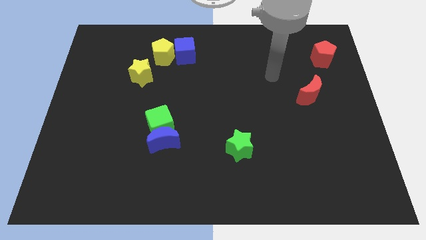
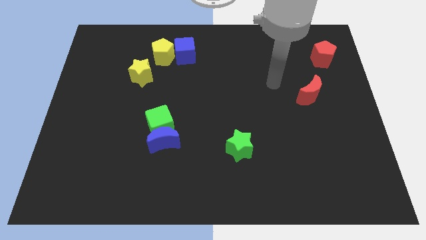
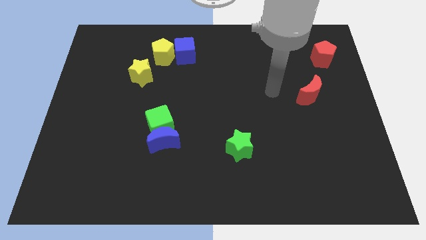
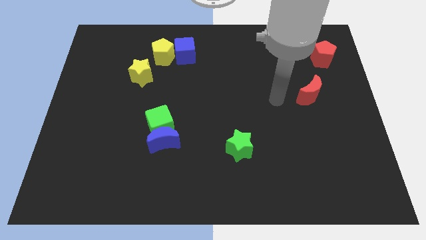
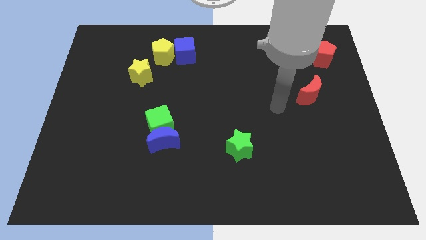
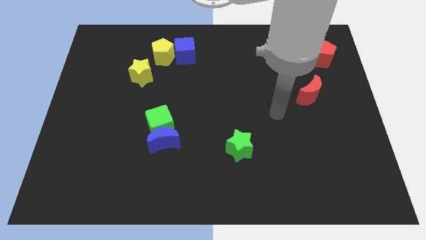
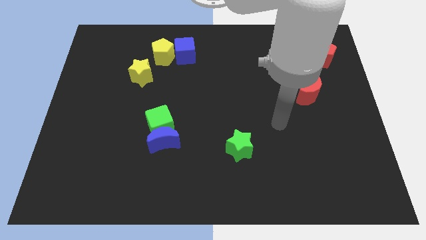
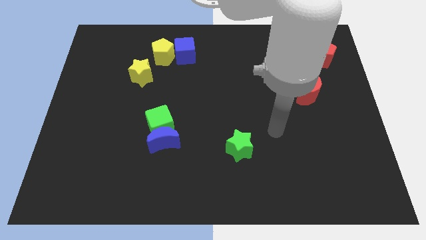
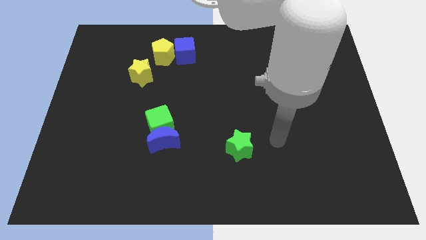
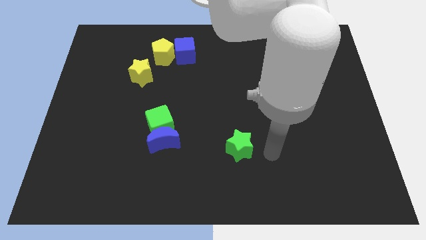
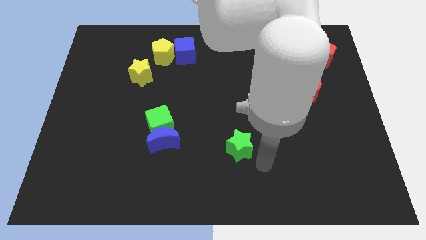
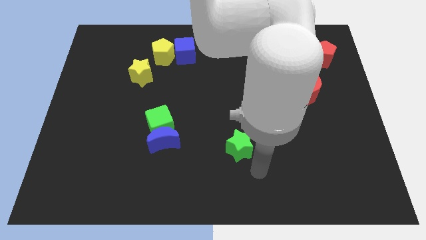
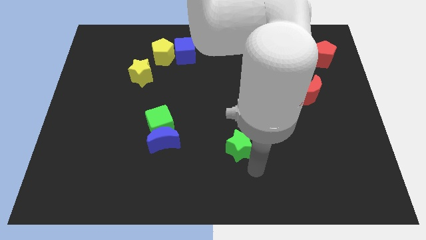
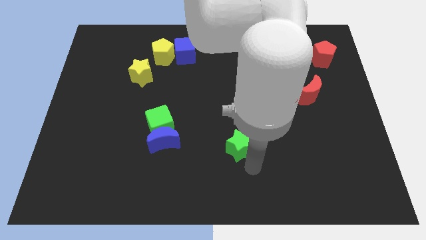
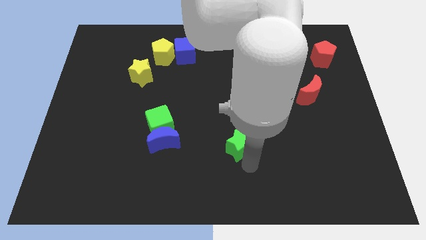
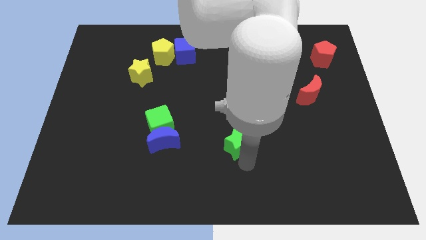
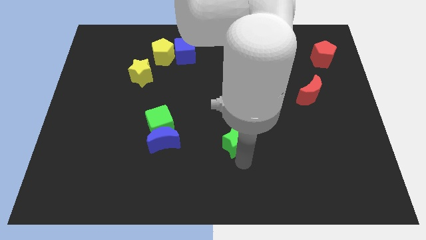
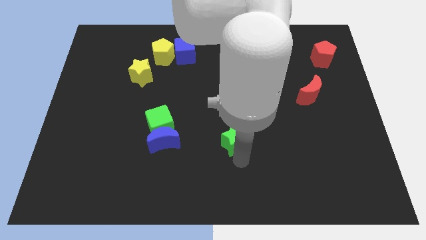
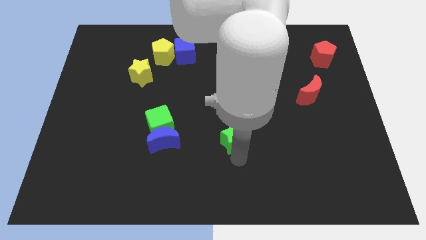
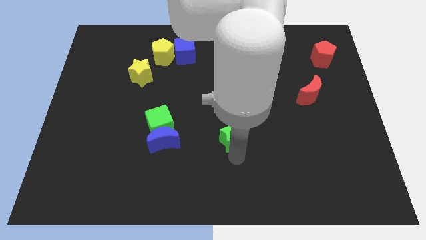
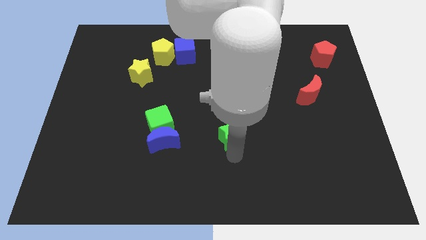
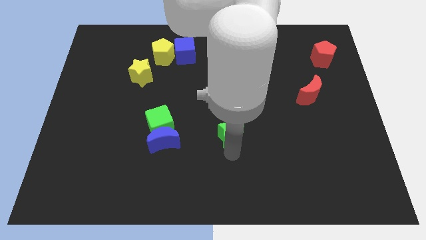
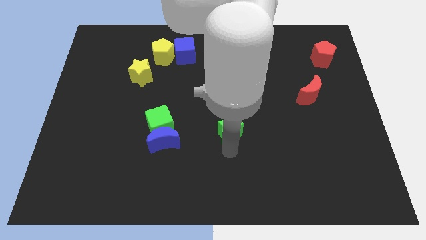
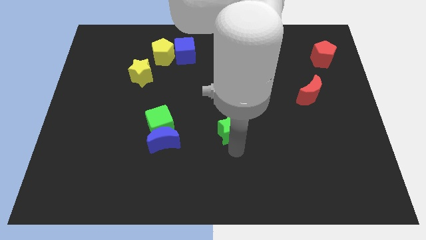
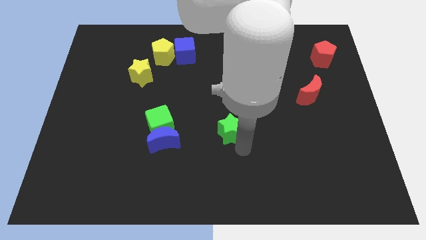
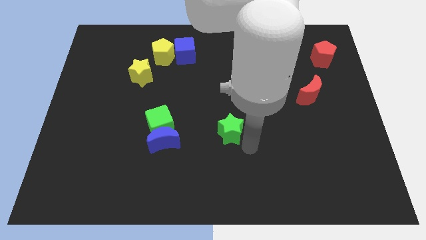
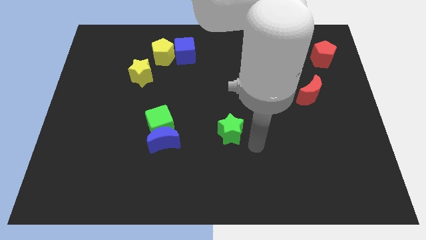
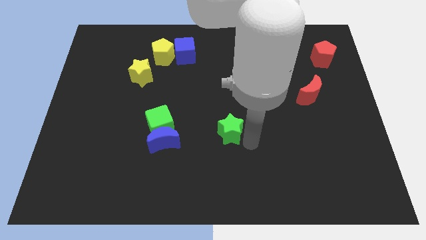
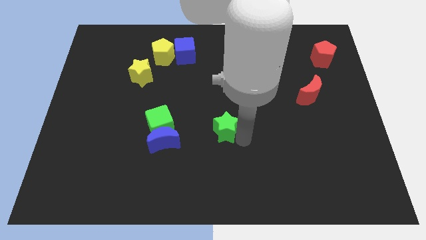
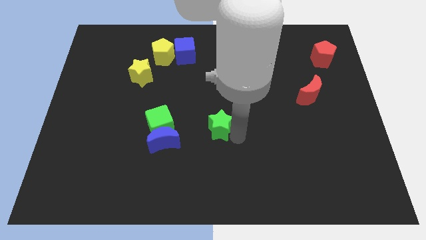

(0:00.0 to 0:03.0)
push the green star a little up and to the left

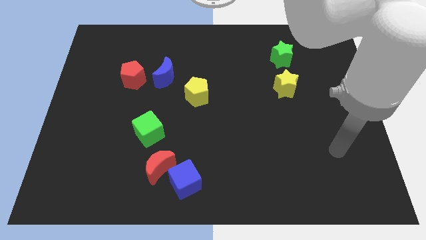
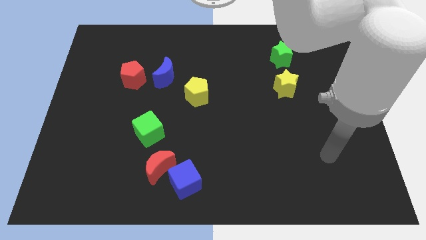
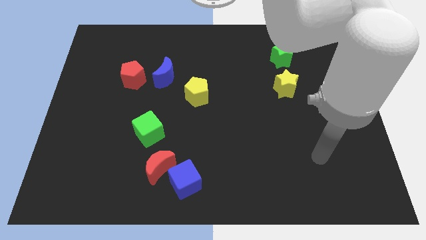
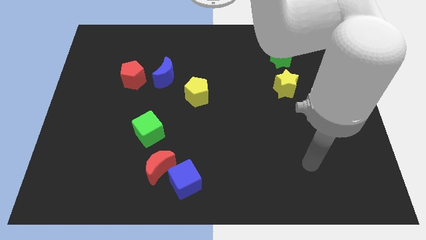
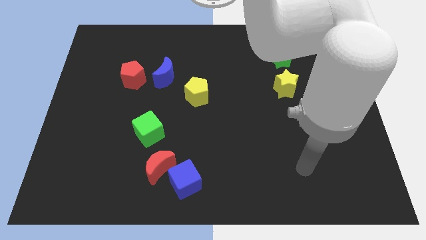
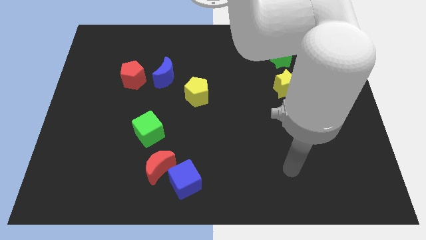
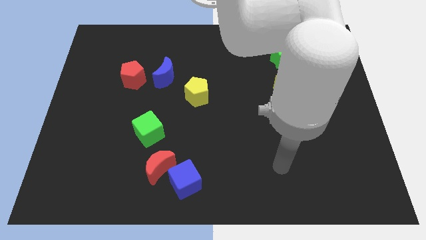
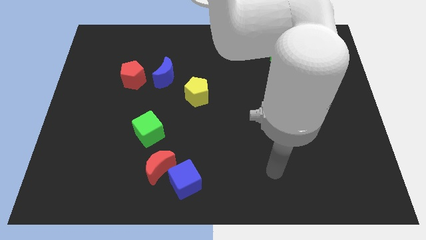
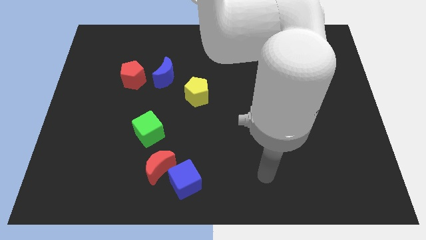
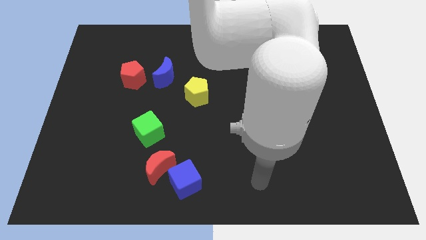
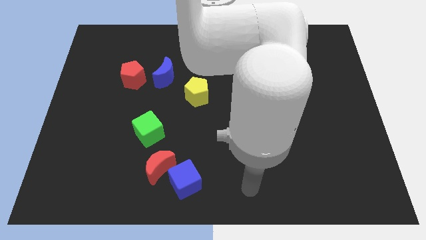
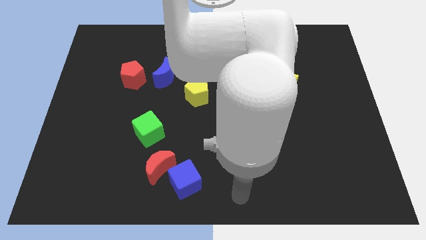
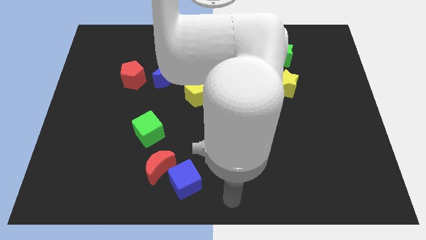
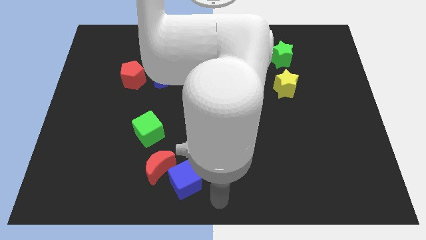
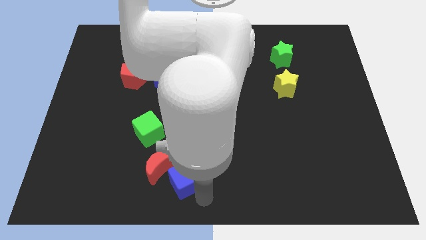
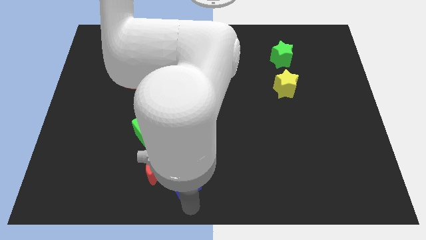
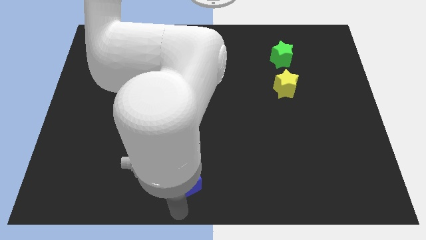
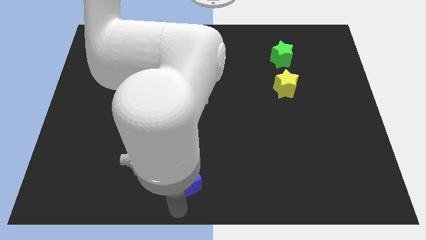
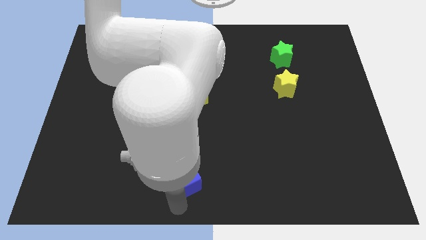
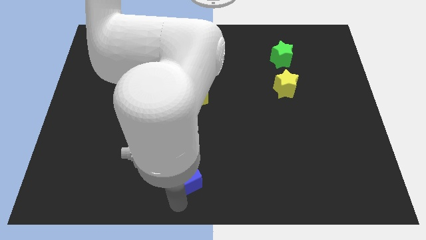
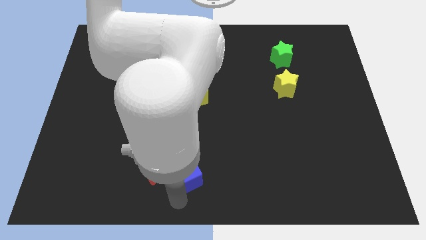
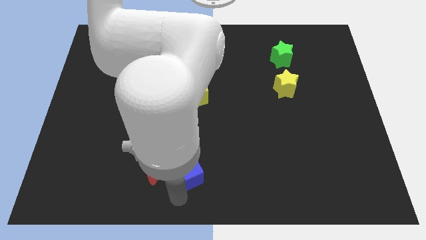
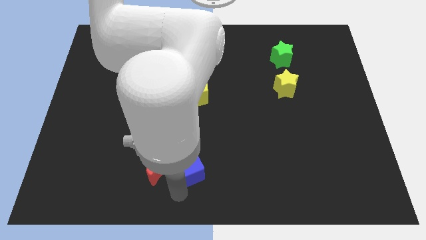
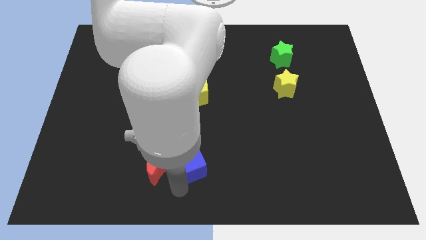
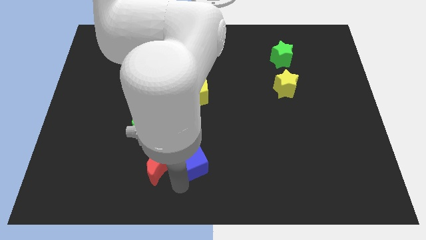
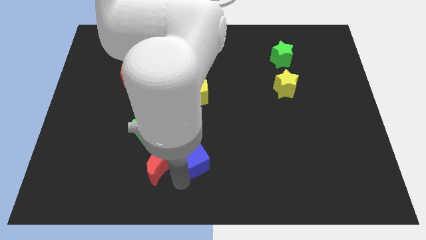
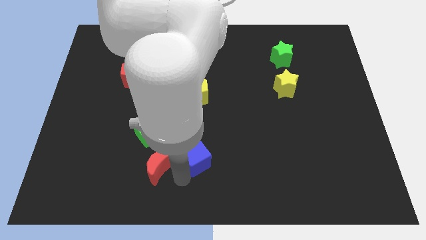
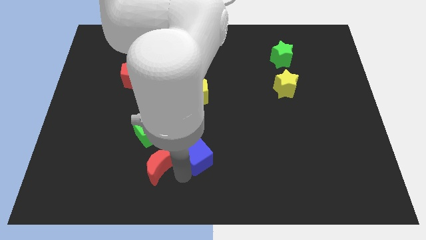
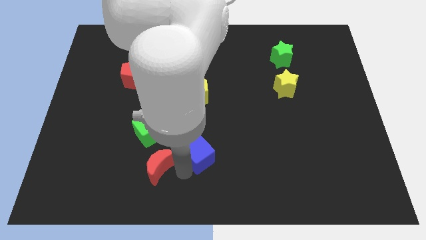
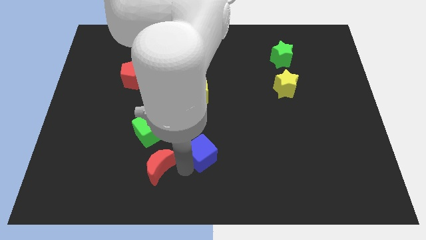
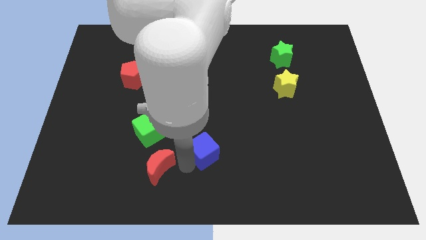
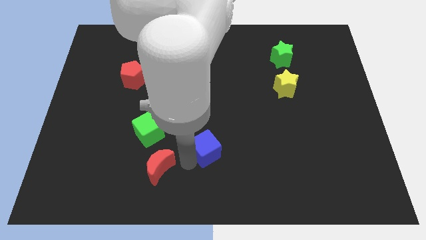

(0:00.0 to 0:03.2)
move the blue cube upwards somewhat

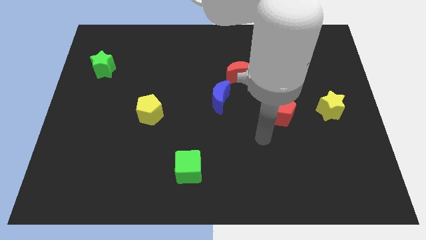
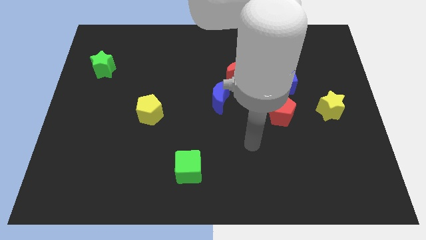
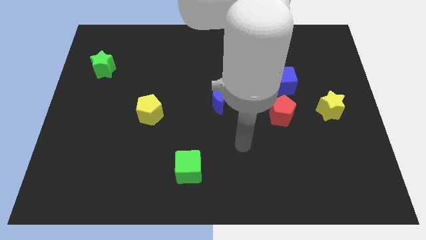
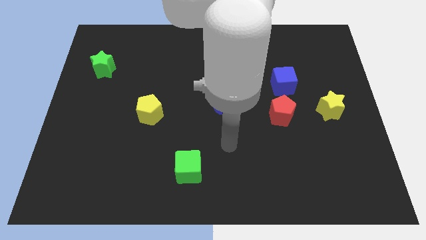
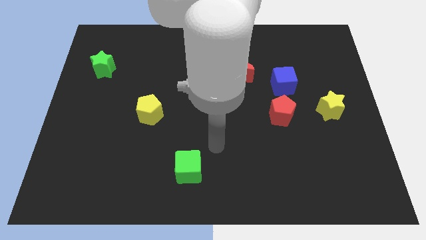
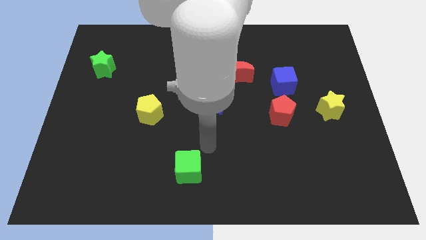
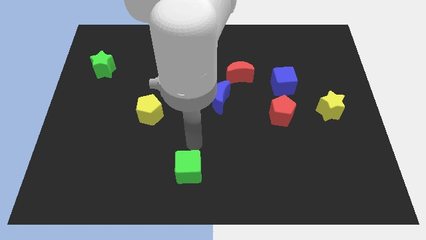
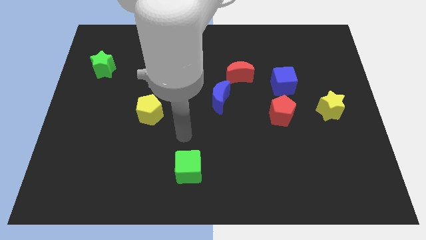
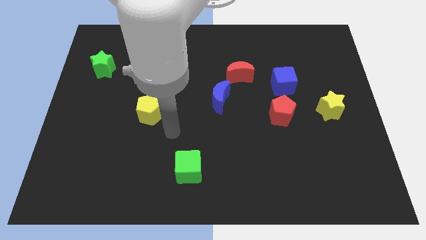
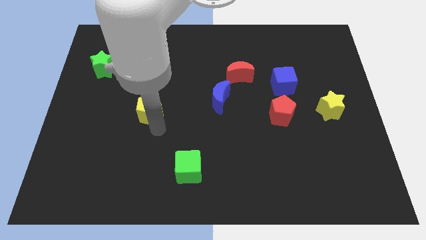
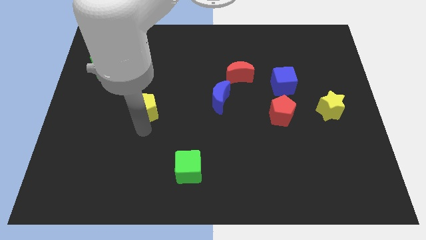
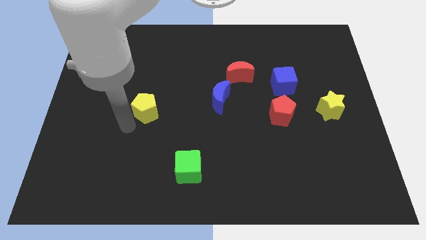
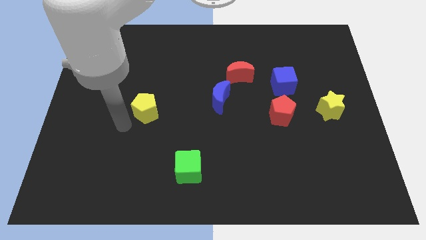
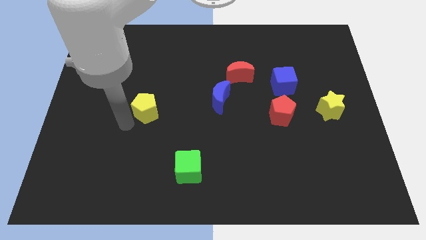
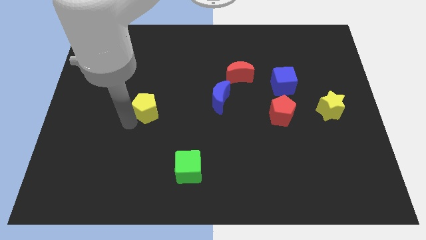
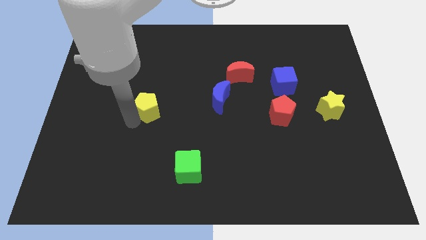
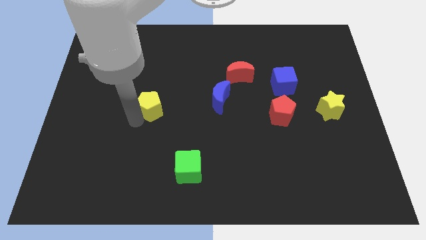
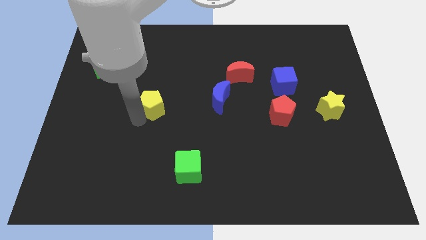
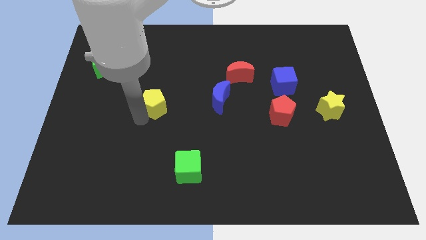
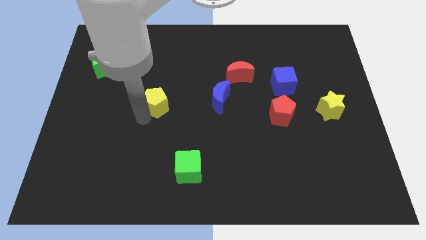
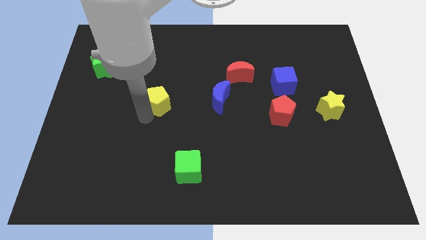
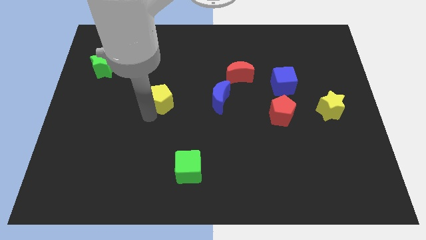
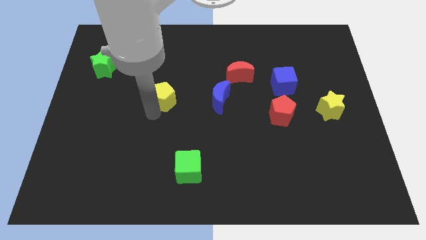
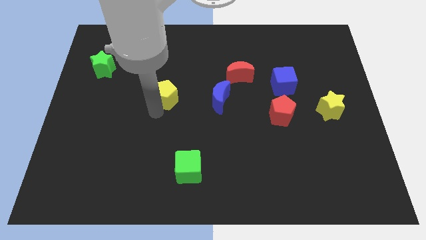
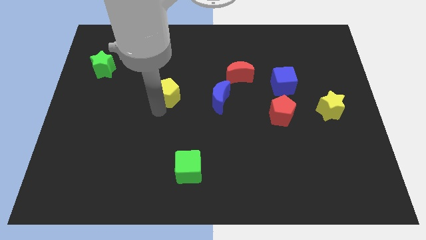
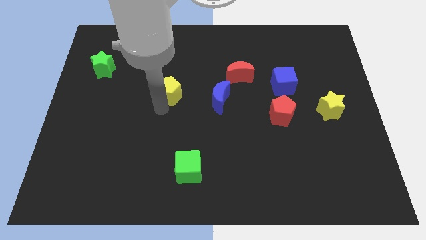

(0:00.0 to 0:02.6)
slide the yellow pentagon up and then to the right a little
